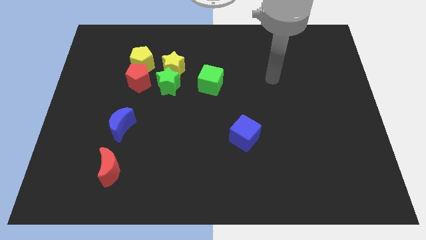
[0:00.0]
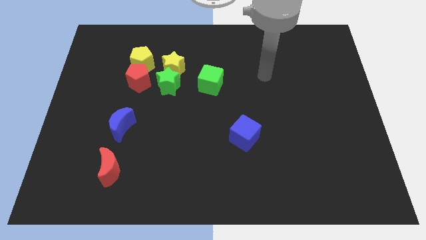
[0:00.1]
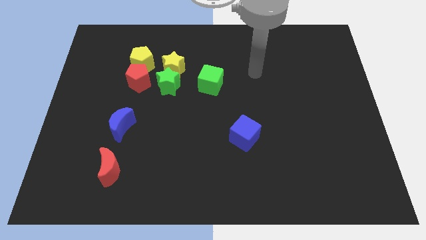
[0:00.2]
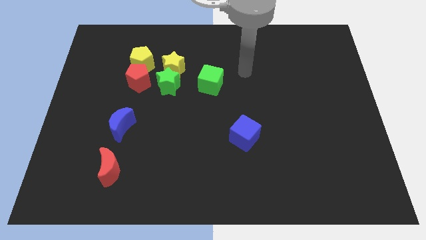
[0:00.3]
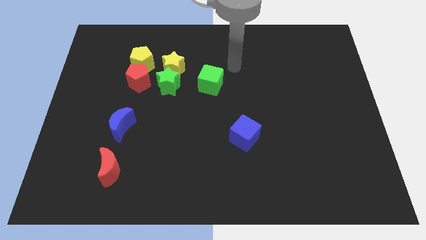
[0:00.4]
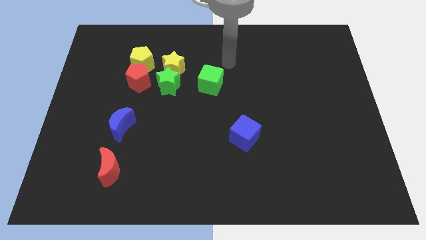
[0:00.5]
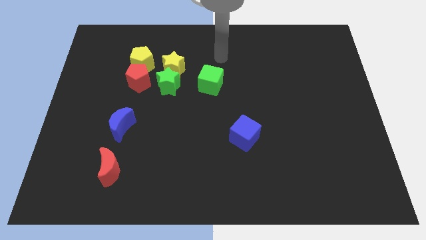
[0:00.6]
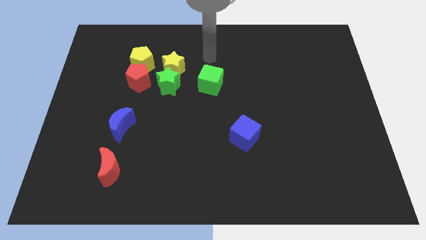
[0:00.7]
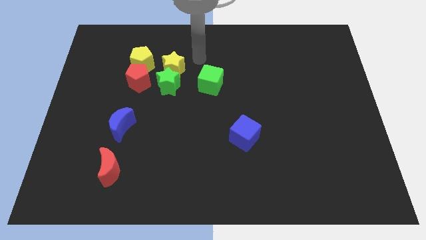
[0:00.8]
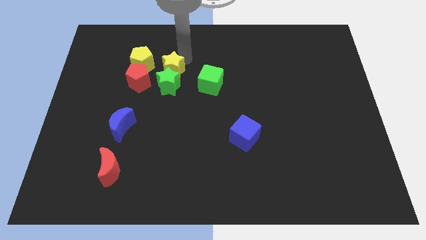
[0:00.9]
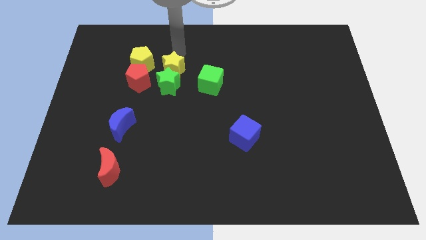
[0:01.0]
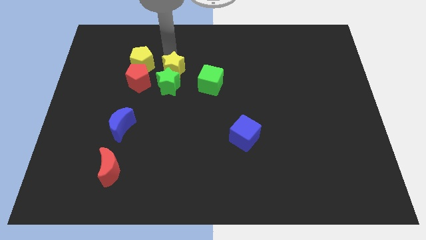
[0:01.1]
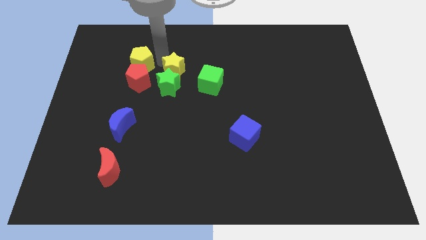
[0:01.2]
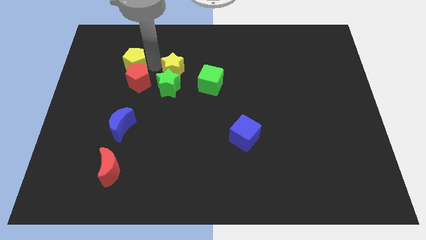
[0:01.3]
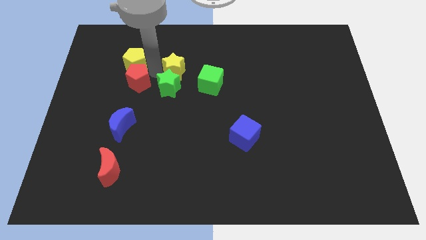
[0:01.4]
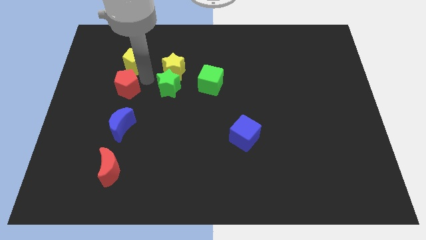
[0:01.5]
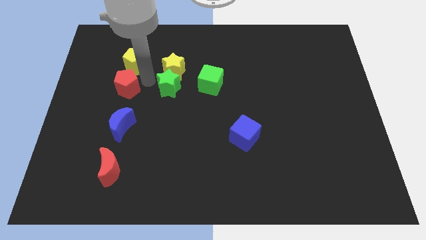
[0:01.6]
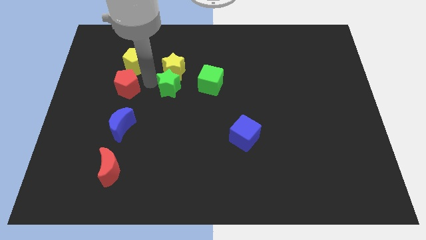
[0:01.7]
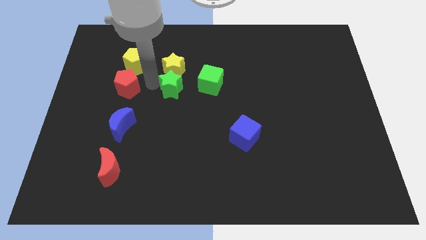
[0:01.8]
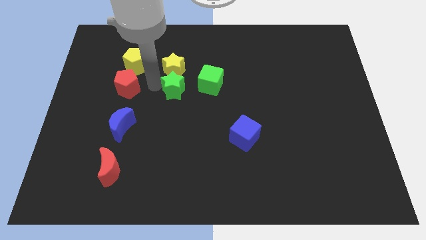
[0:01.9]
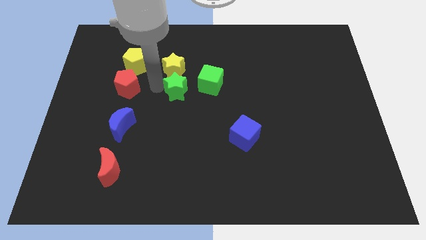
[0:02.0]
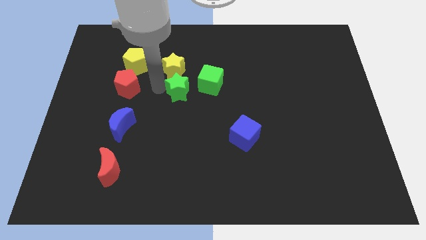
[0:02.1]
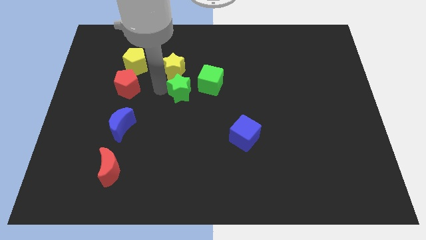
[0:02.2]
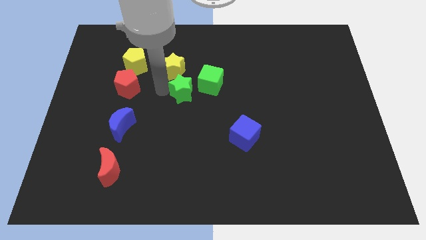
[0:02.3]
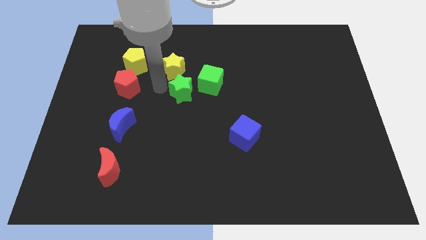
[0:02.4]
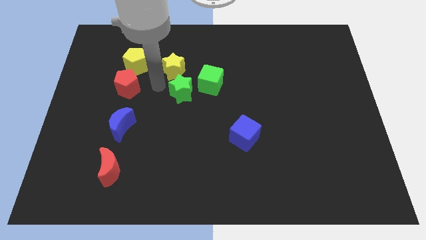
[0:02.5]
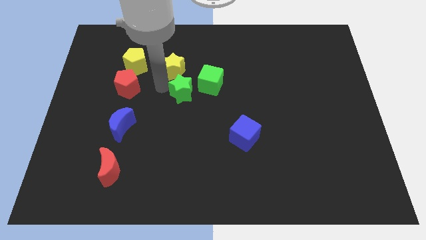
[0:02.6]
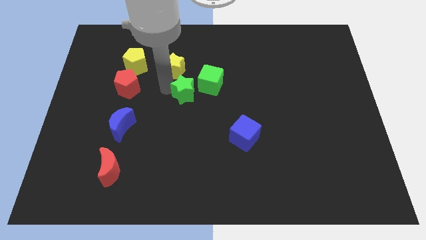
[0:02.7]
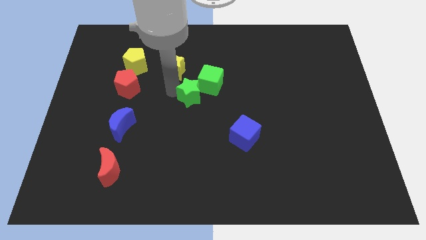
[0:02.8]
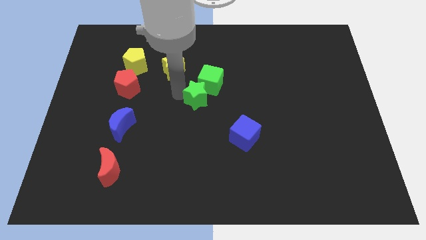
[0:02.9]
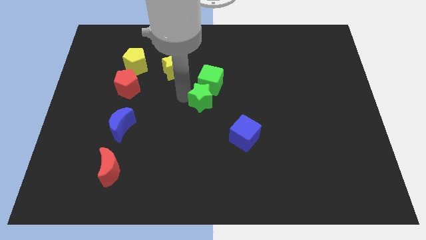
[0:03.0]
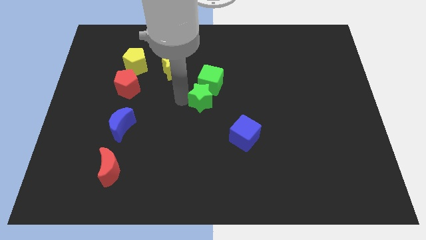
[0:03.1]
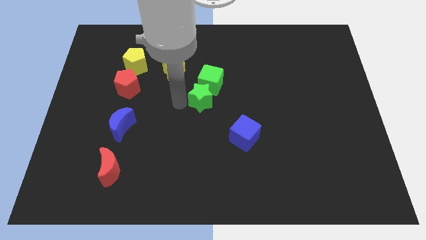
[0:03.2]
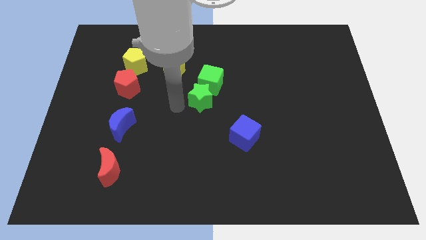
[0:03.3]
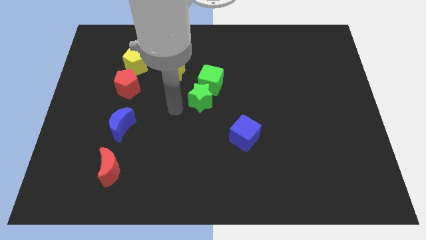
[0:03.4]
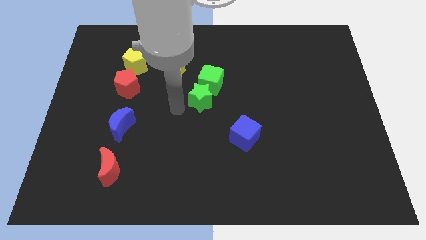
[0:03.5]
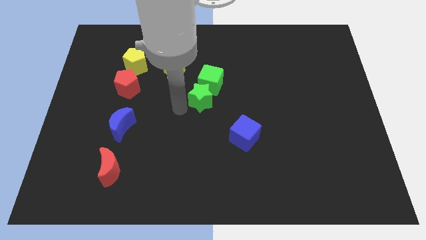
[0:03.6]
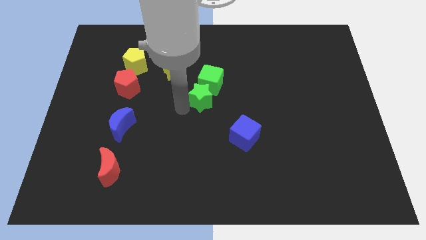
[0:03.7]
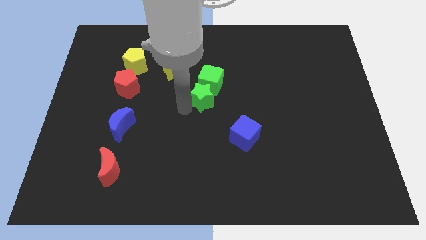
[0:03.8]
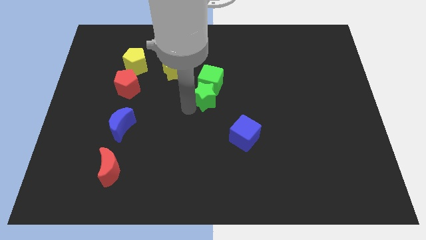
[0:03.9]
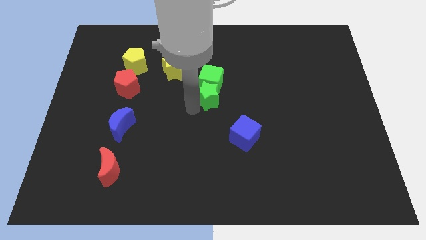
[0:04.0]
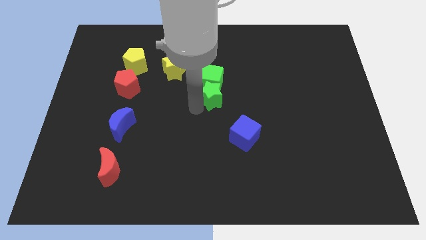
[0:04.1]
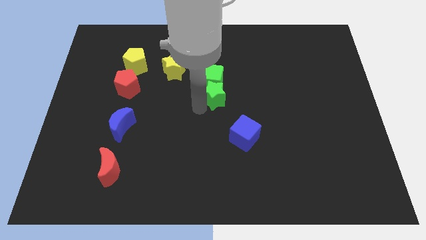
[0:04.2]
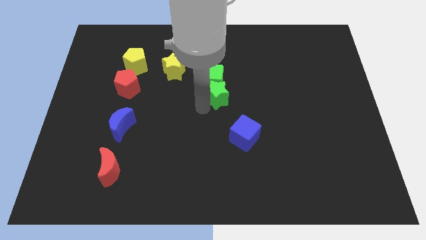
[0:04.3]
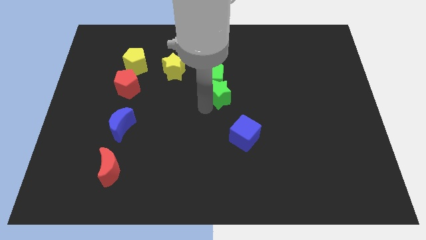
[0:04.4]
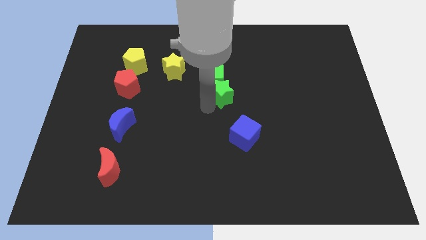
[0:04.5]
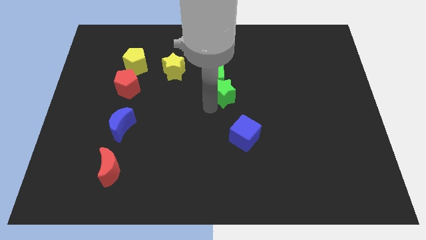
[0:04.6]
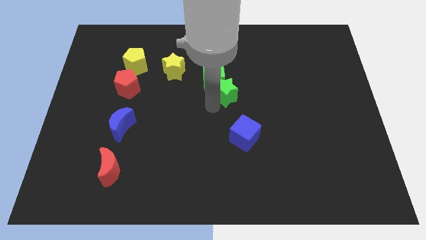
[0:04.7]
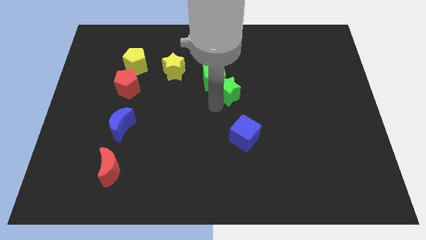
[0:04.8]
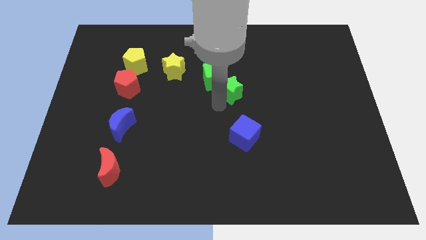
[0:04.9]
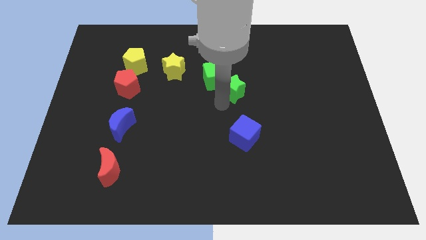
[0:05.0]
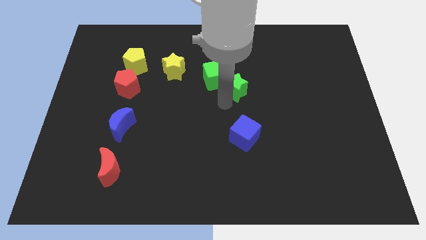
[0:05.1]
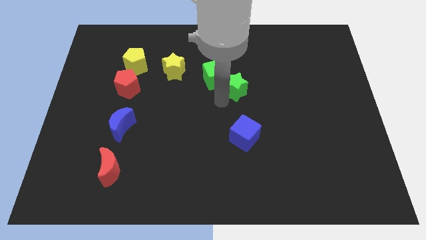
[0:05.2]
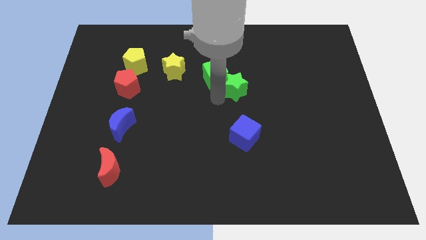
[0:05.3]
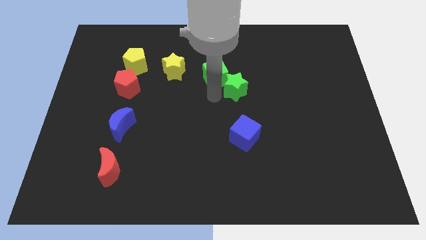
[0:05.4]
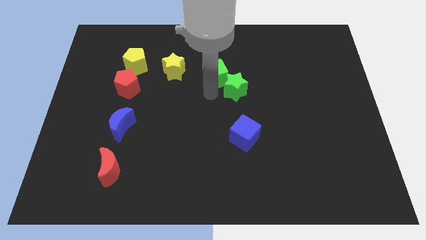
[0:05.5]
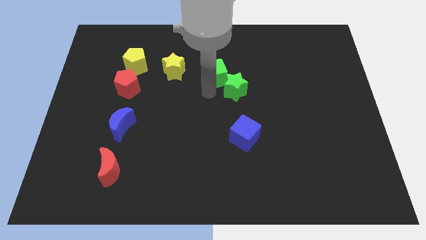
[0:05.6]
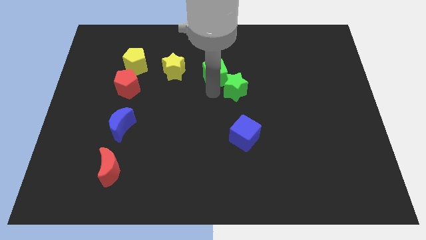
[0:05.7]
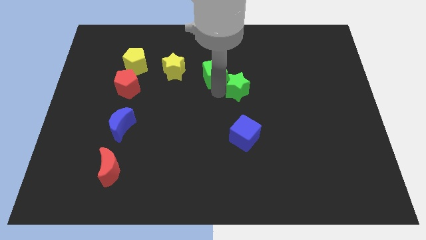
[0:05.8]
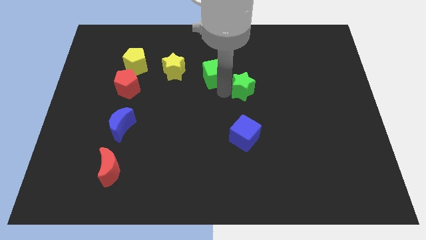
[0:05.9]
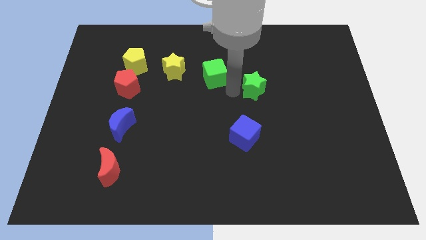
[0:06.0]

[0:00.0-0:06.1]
push the green star right

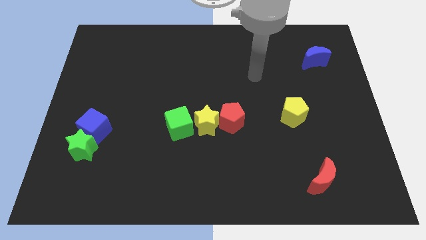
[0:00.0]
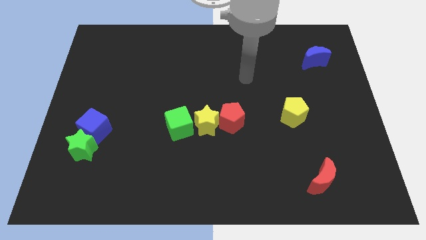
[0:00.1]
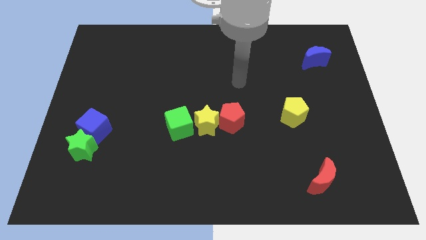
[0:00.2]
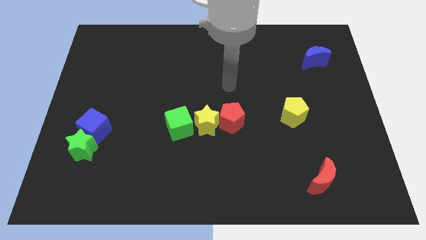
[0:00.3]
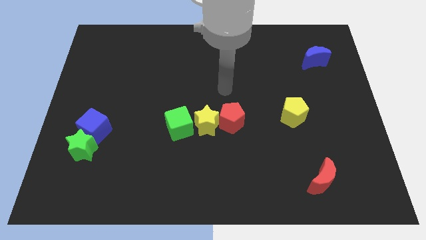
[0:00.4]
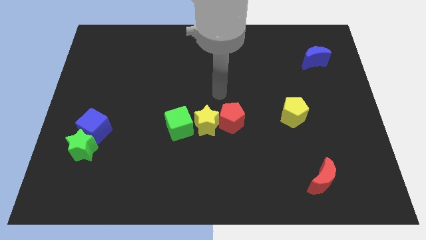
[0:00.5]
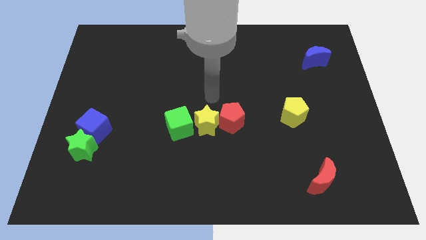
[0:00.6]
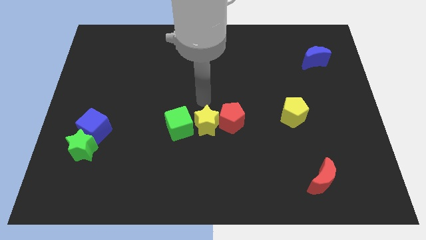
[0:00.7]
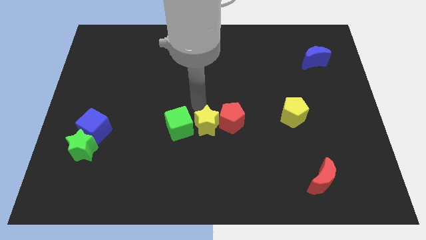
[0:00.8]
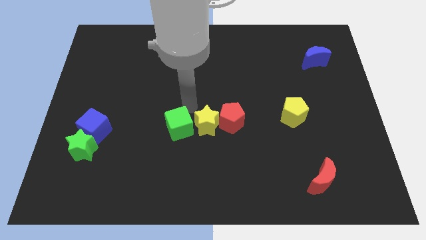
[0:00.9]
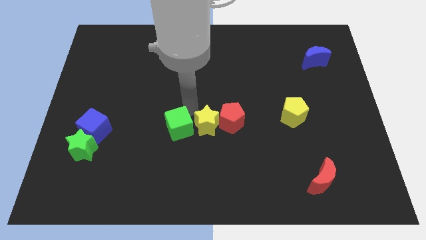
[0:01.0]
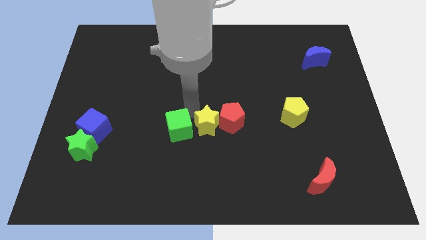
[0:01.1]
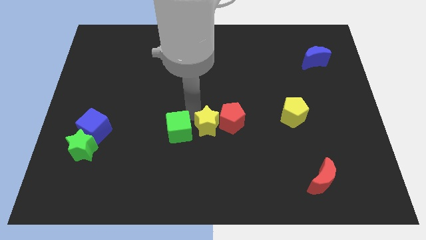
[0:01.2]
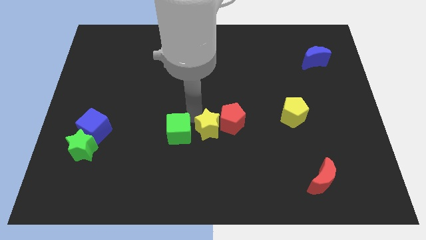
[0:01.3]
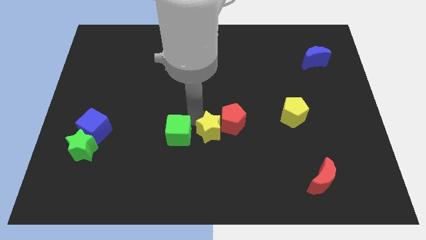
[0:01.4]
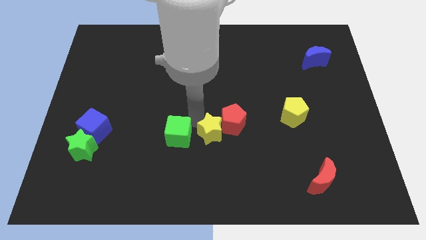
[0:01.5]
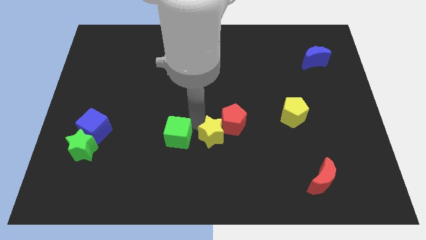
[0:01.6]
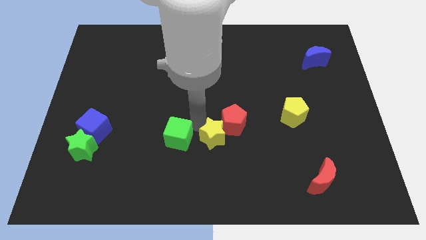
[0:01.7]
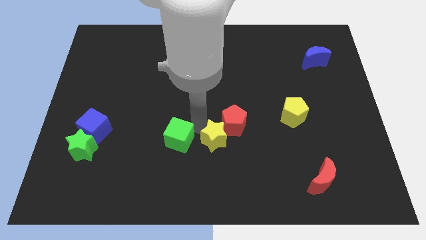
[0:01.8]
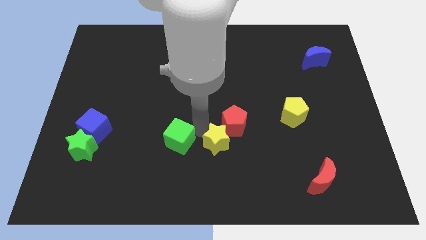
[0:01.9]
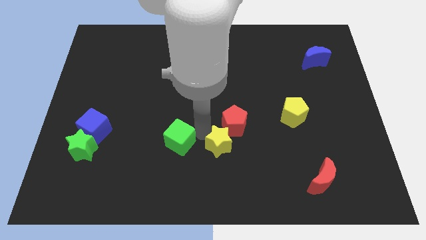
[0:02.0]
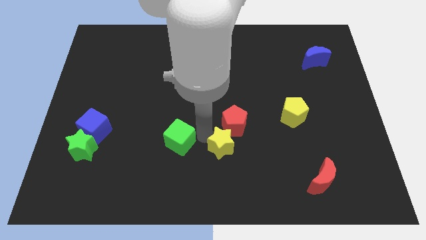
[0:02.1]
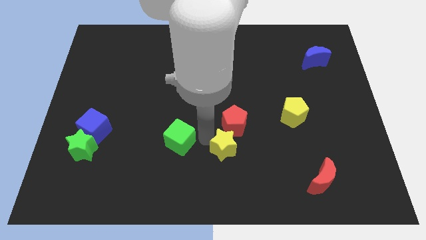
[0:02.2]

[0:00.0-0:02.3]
move the yellow star a little downwards and to the right diagonally

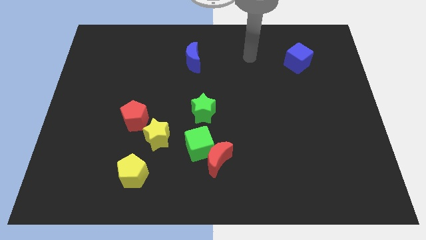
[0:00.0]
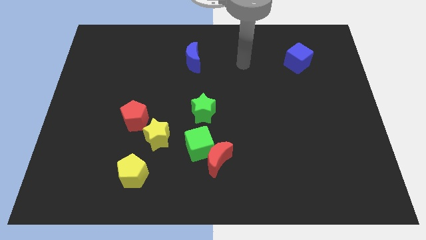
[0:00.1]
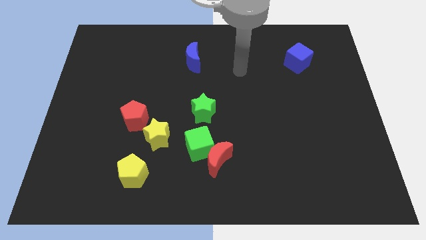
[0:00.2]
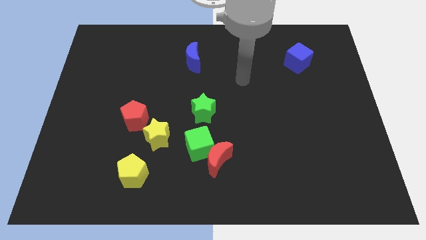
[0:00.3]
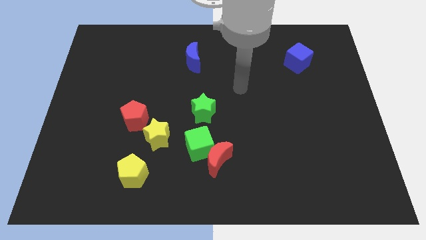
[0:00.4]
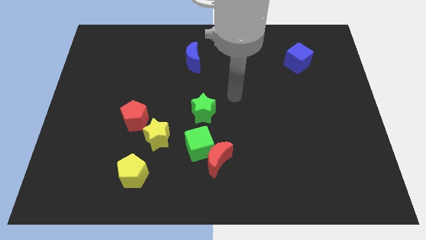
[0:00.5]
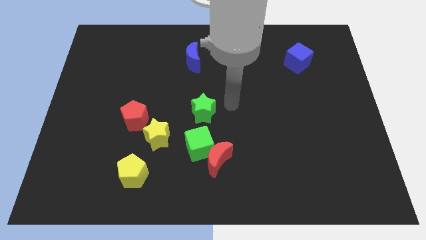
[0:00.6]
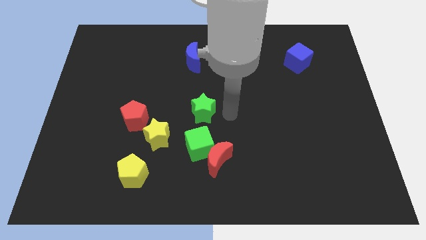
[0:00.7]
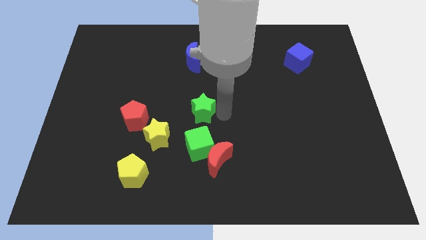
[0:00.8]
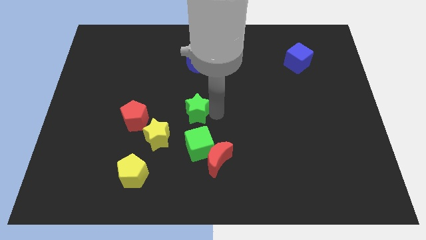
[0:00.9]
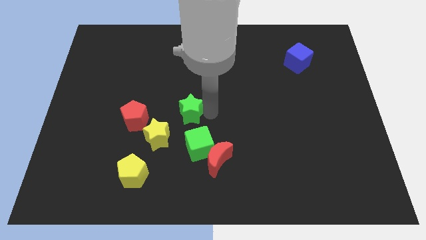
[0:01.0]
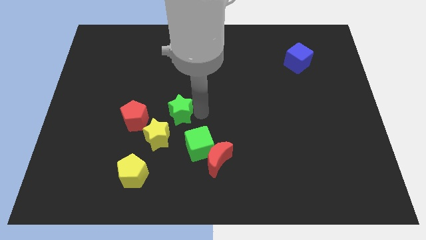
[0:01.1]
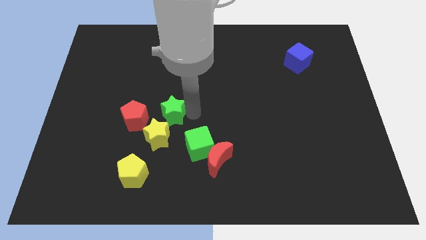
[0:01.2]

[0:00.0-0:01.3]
slightly slide the green star left
